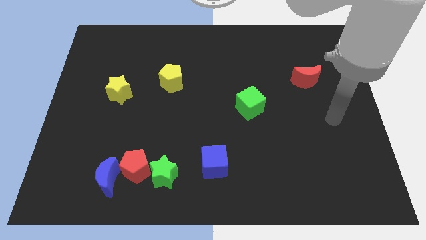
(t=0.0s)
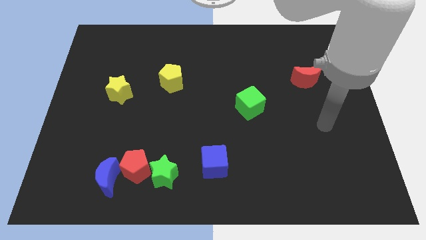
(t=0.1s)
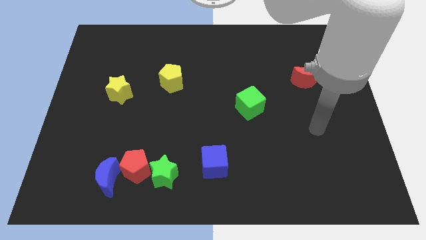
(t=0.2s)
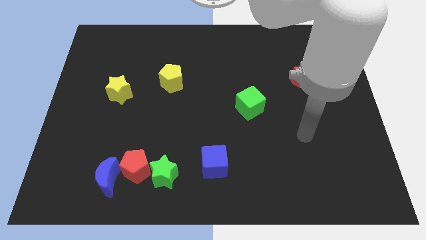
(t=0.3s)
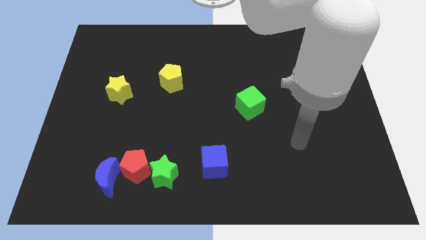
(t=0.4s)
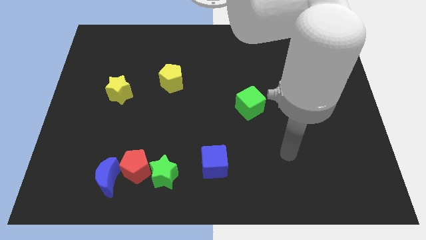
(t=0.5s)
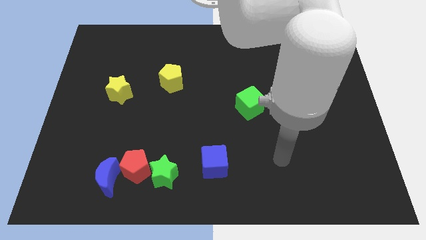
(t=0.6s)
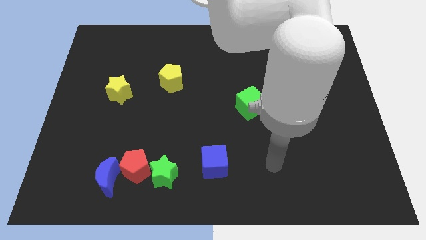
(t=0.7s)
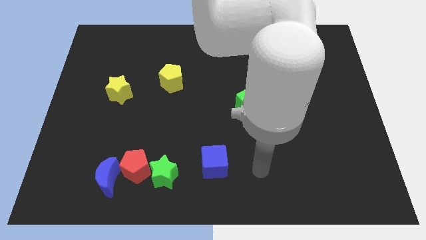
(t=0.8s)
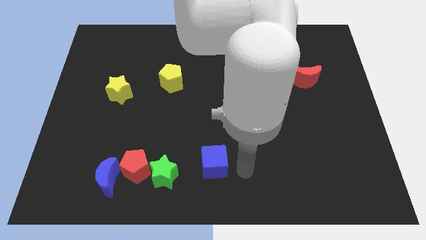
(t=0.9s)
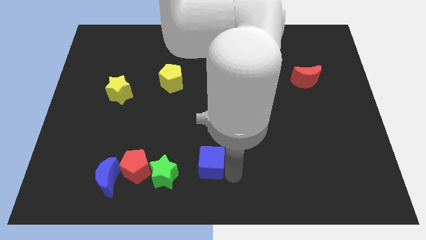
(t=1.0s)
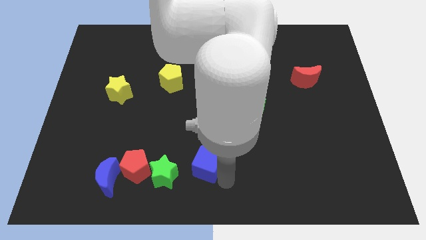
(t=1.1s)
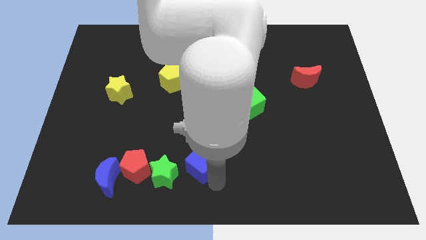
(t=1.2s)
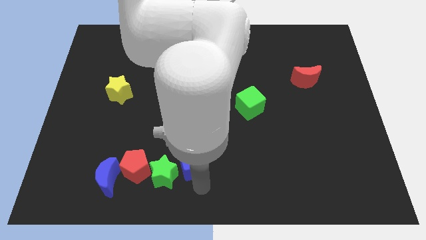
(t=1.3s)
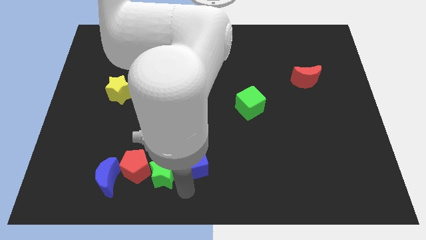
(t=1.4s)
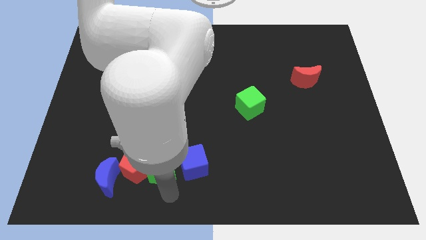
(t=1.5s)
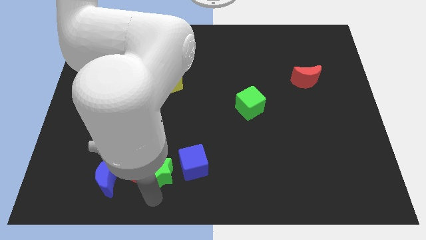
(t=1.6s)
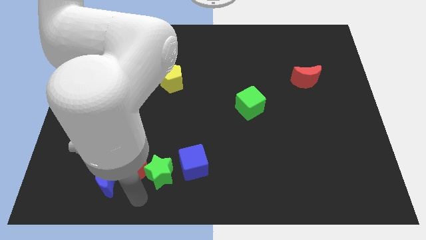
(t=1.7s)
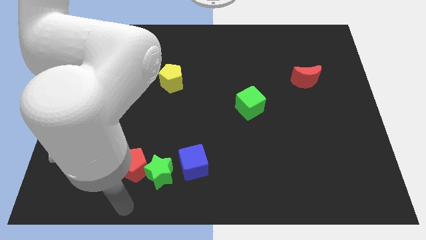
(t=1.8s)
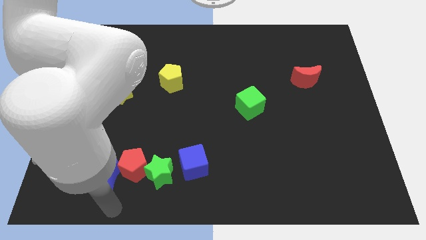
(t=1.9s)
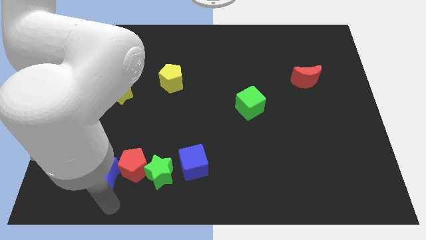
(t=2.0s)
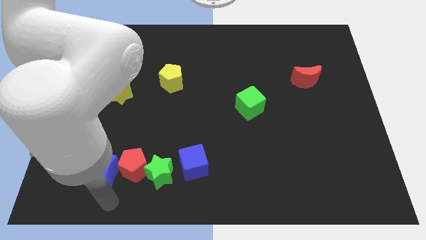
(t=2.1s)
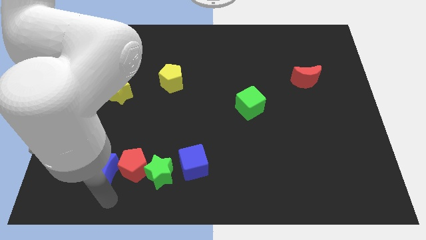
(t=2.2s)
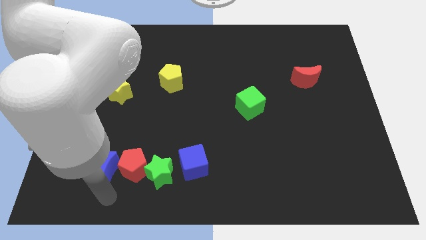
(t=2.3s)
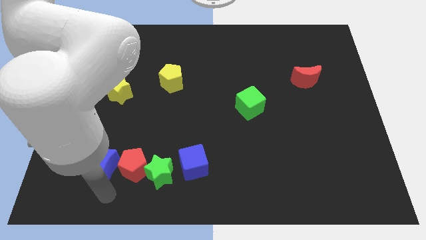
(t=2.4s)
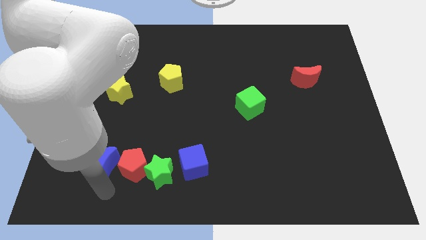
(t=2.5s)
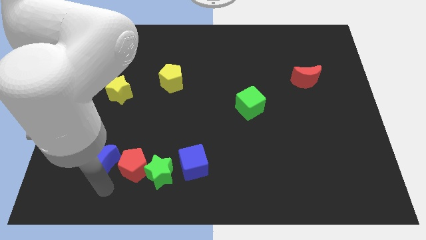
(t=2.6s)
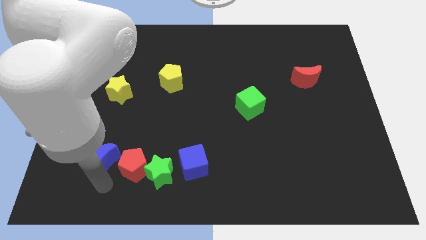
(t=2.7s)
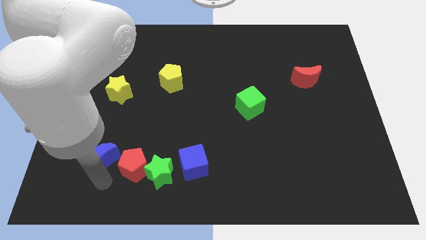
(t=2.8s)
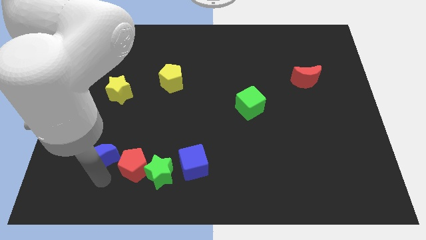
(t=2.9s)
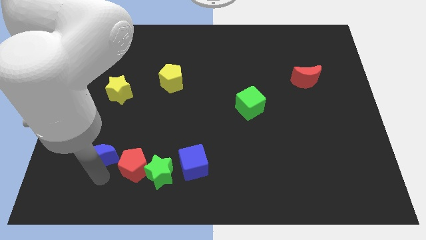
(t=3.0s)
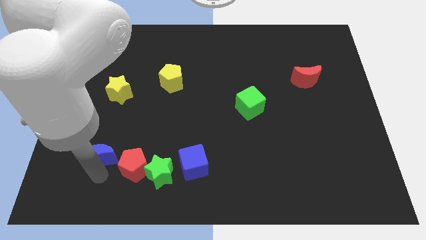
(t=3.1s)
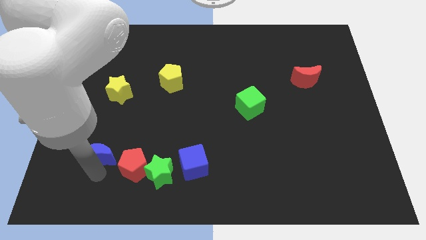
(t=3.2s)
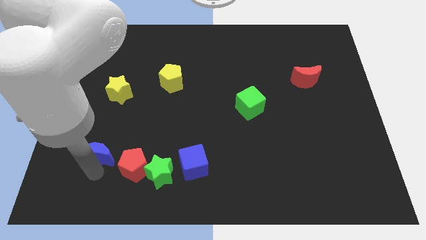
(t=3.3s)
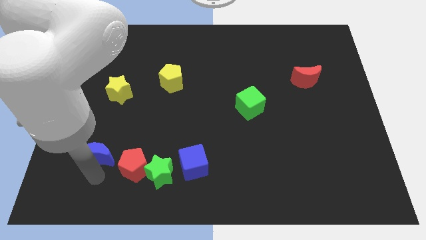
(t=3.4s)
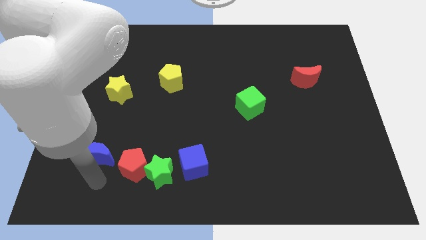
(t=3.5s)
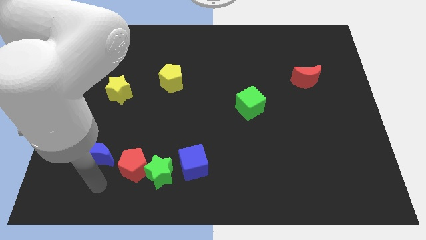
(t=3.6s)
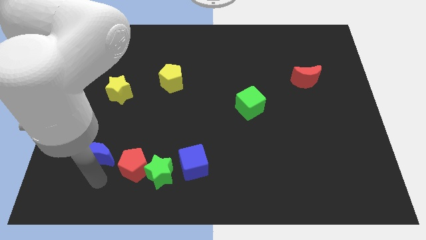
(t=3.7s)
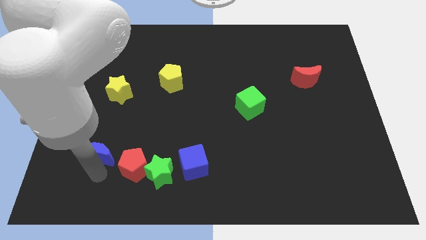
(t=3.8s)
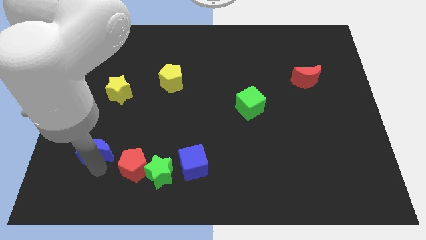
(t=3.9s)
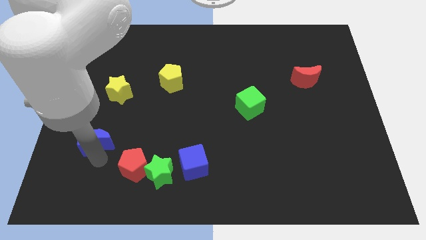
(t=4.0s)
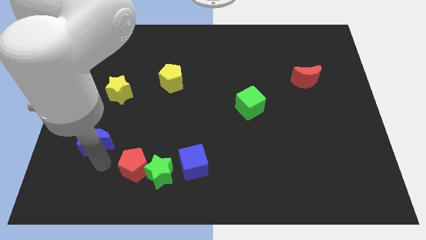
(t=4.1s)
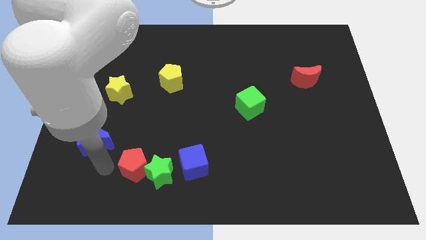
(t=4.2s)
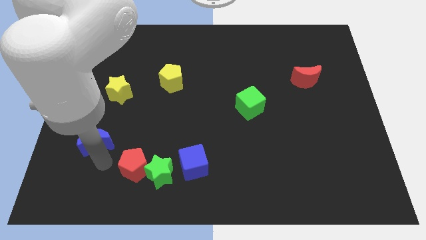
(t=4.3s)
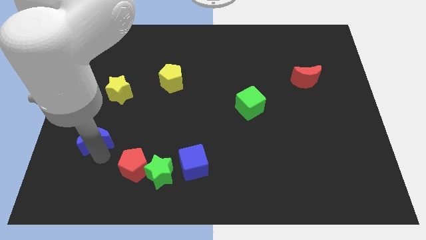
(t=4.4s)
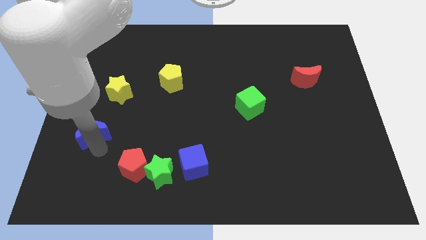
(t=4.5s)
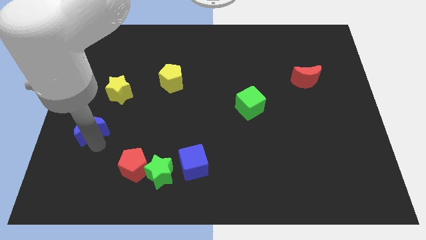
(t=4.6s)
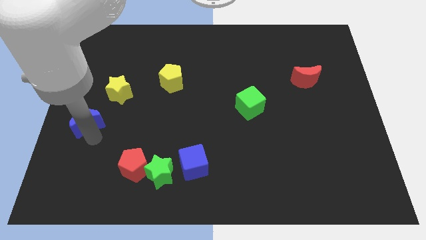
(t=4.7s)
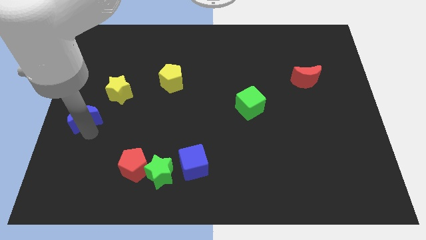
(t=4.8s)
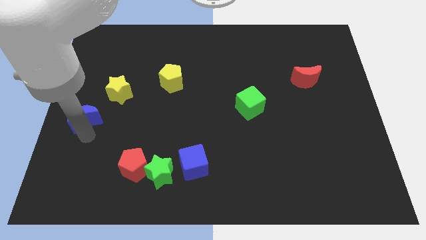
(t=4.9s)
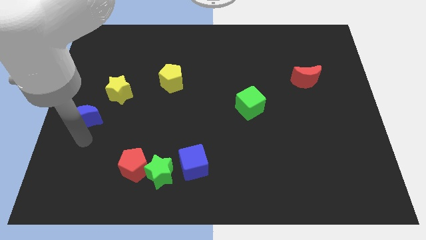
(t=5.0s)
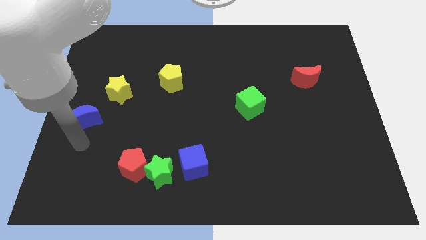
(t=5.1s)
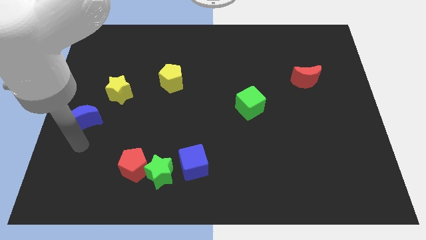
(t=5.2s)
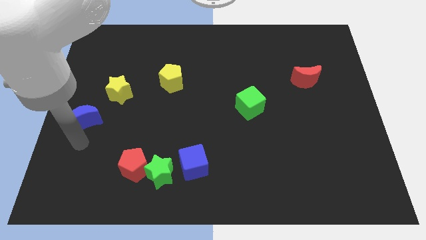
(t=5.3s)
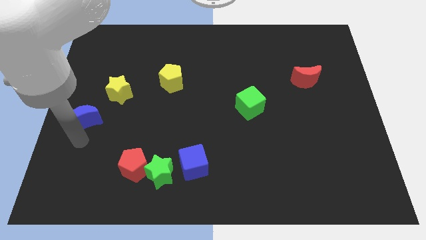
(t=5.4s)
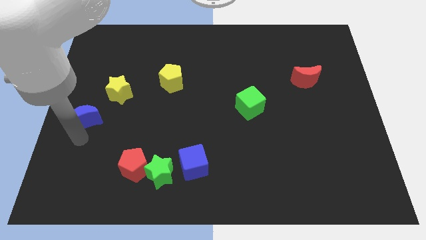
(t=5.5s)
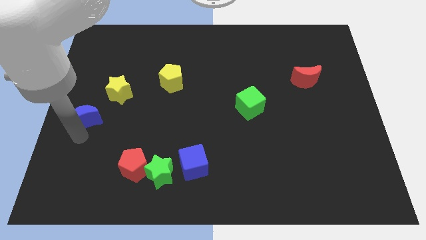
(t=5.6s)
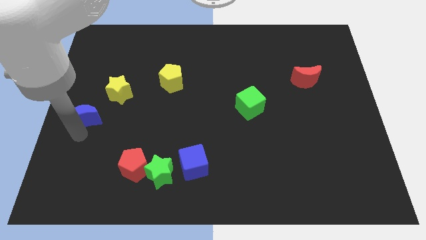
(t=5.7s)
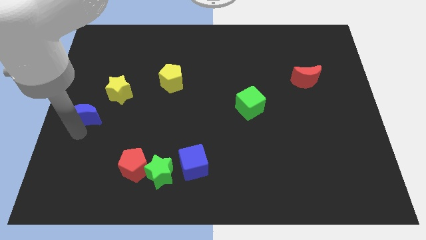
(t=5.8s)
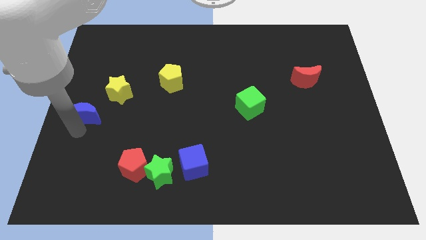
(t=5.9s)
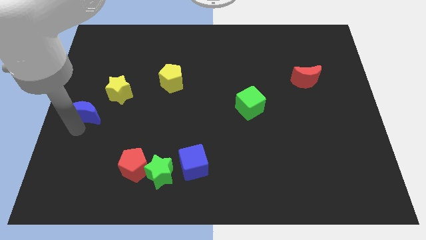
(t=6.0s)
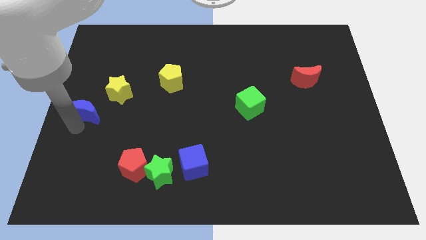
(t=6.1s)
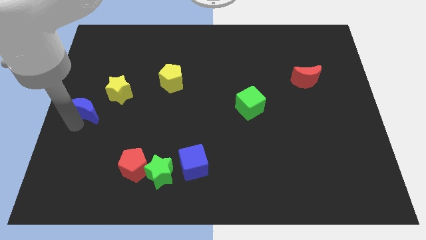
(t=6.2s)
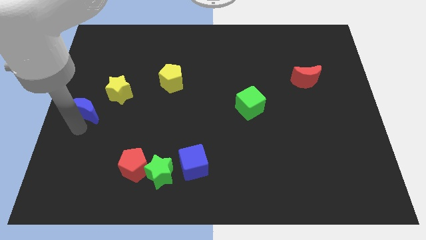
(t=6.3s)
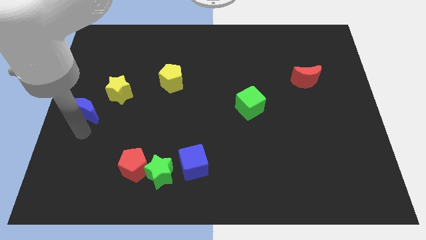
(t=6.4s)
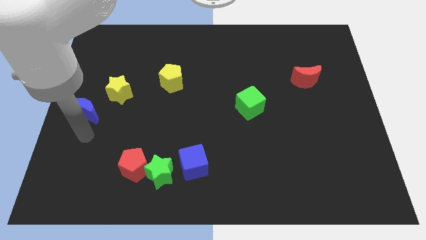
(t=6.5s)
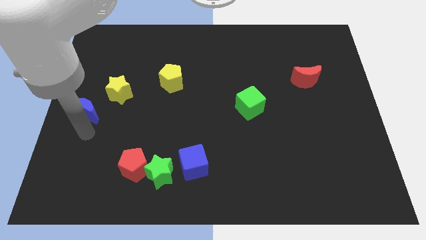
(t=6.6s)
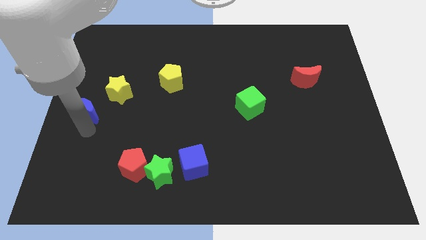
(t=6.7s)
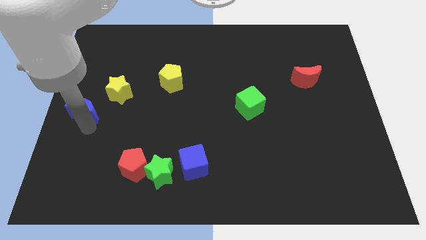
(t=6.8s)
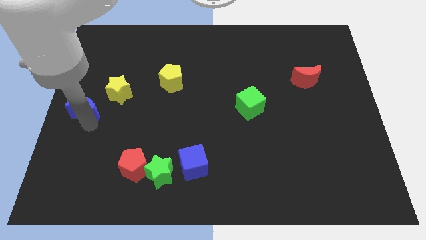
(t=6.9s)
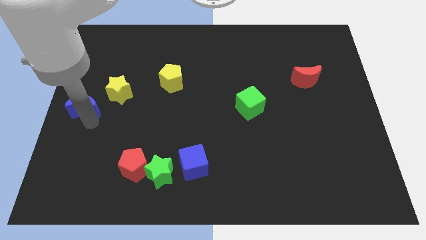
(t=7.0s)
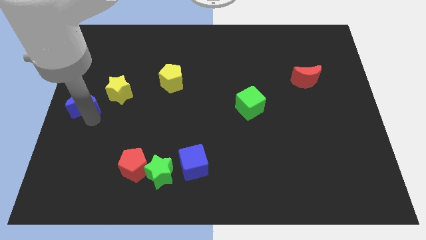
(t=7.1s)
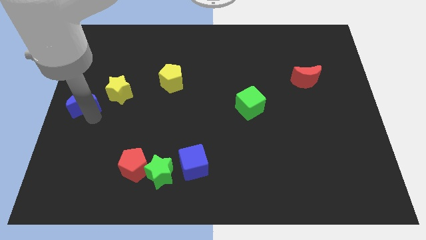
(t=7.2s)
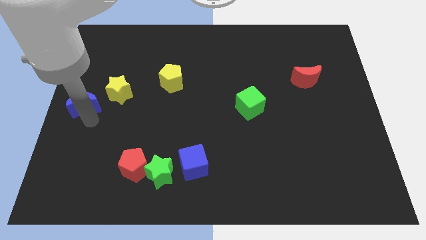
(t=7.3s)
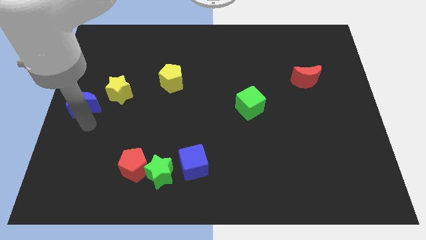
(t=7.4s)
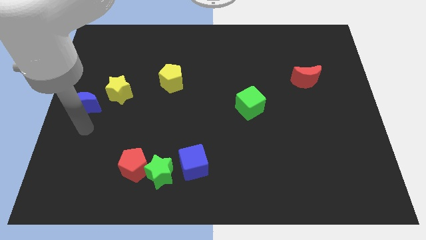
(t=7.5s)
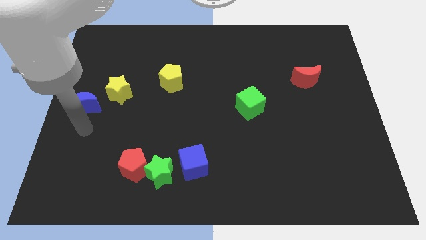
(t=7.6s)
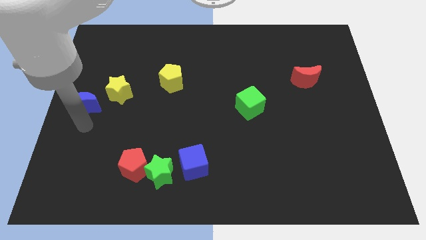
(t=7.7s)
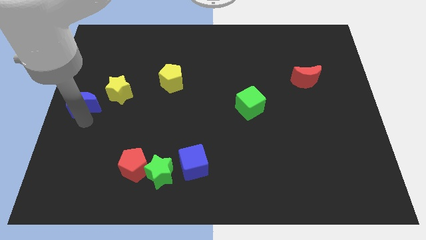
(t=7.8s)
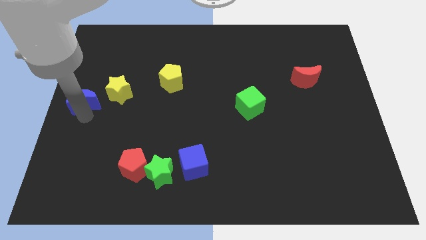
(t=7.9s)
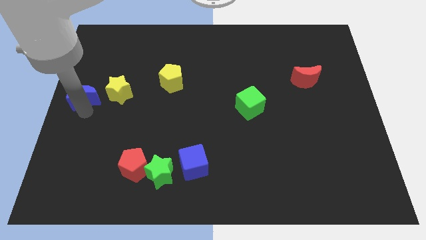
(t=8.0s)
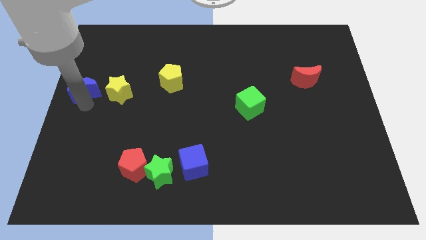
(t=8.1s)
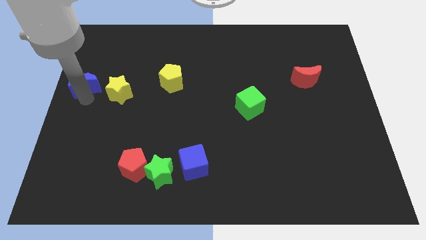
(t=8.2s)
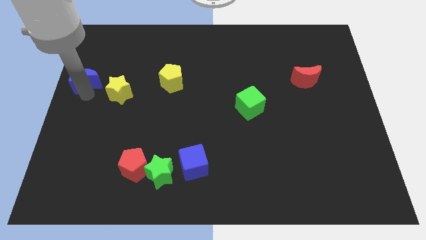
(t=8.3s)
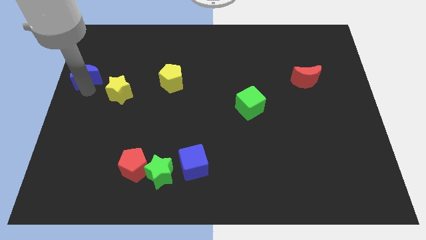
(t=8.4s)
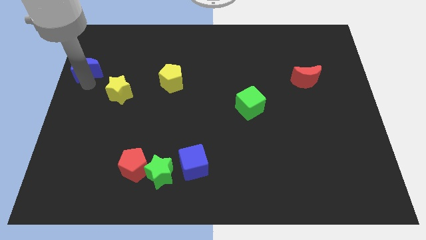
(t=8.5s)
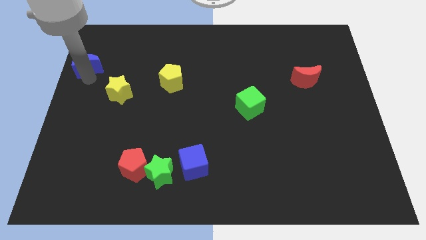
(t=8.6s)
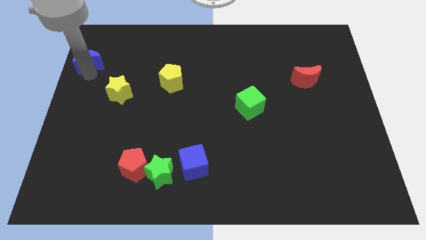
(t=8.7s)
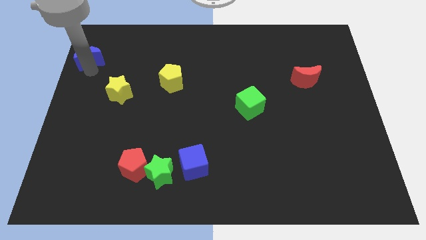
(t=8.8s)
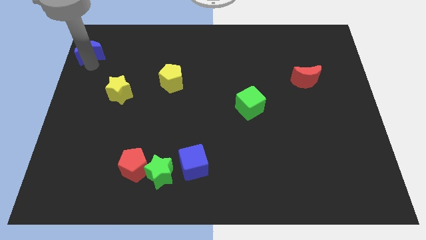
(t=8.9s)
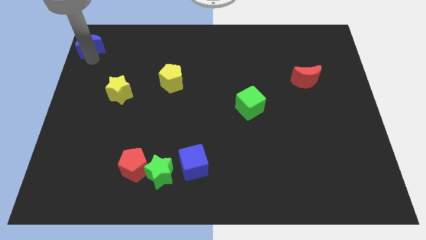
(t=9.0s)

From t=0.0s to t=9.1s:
push the blue moon to the upper left corner
